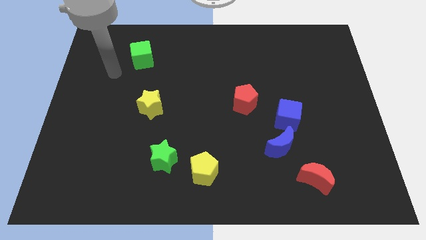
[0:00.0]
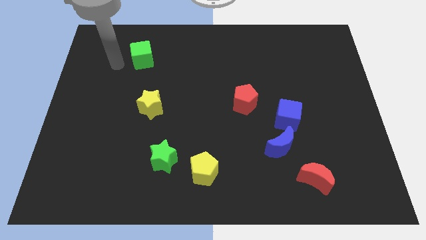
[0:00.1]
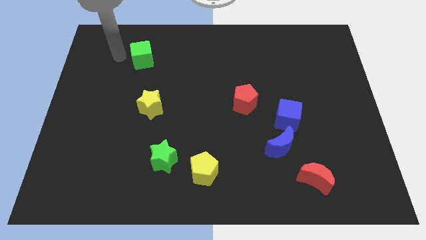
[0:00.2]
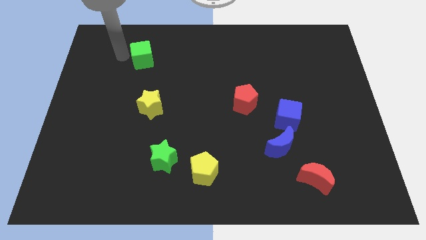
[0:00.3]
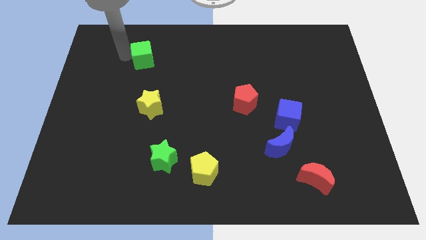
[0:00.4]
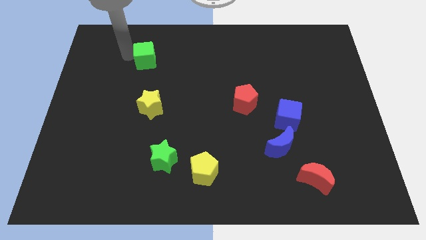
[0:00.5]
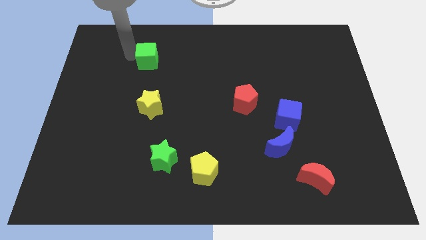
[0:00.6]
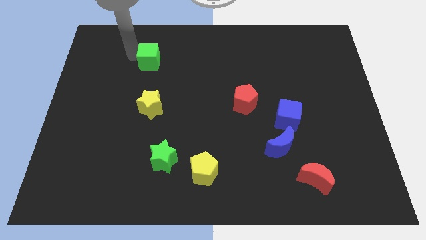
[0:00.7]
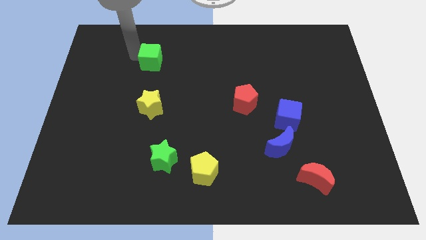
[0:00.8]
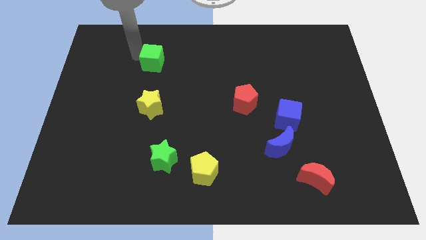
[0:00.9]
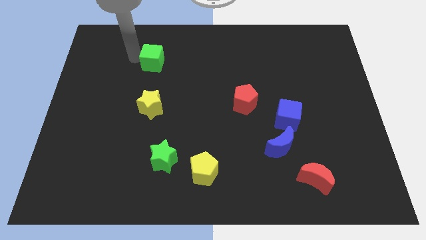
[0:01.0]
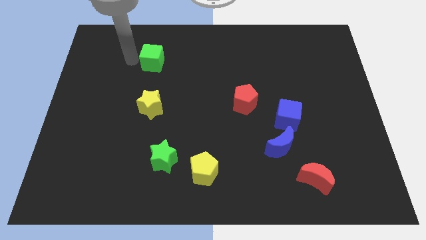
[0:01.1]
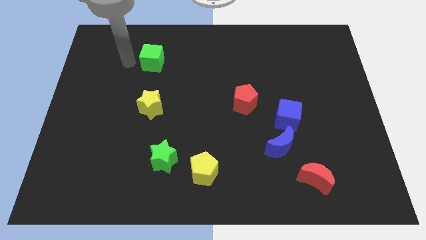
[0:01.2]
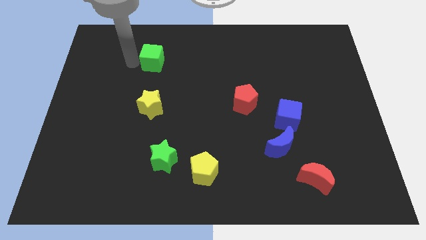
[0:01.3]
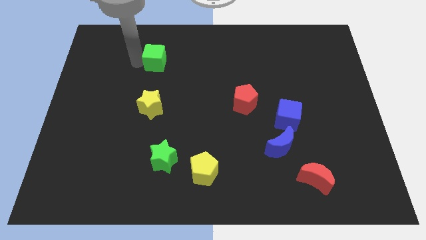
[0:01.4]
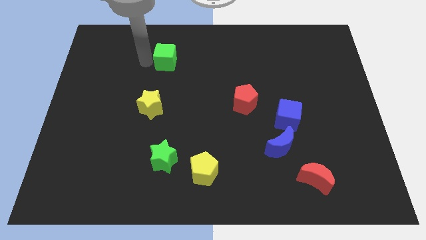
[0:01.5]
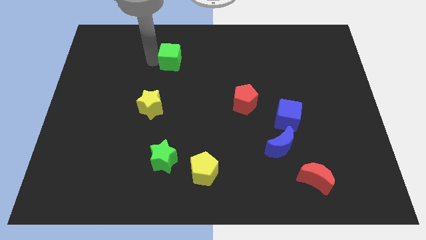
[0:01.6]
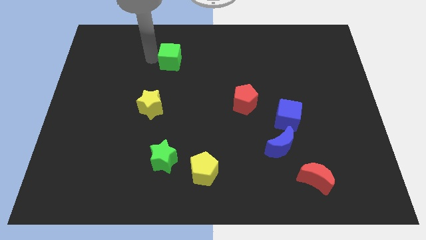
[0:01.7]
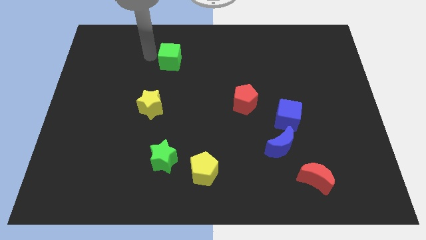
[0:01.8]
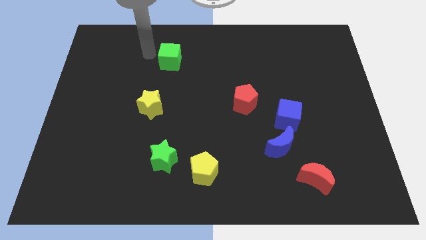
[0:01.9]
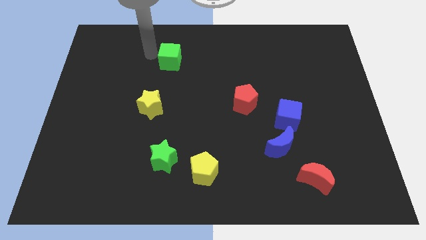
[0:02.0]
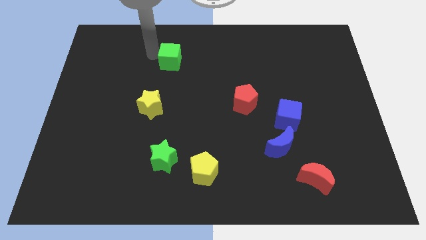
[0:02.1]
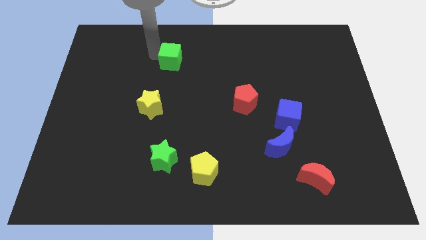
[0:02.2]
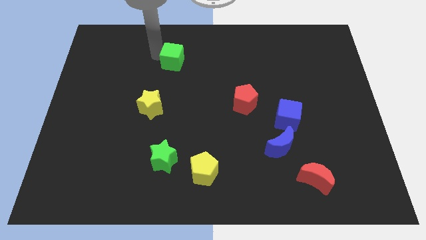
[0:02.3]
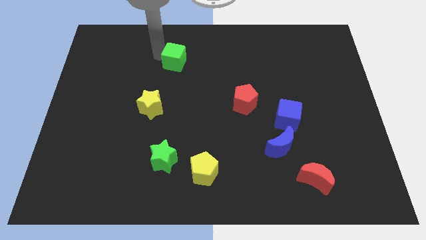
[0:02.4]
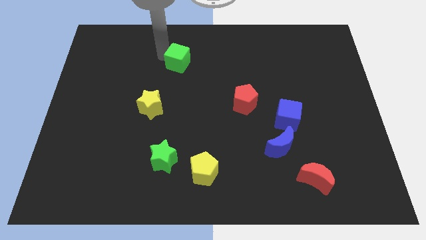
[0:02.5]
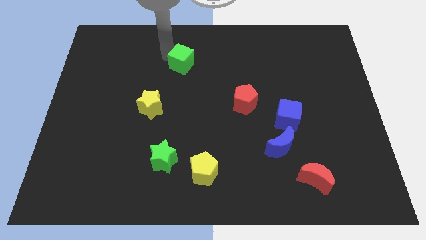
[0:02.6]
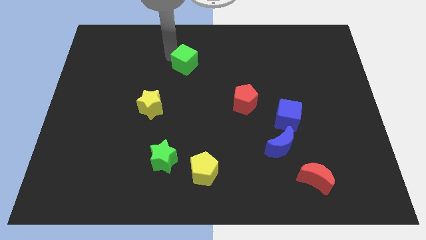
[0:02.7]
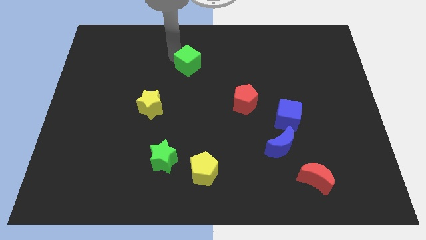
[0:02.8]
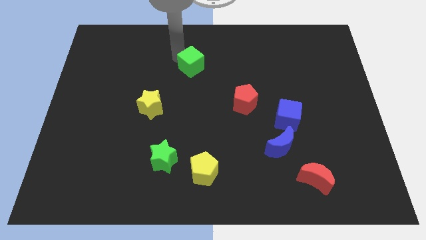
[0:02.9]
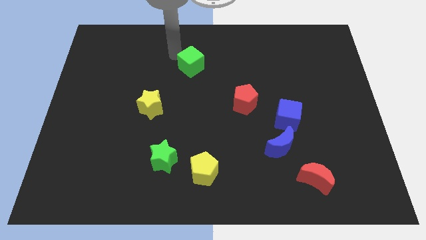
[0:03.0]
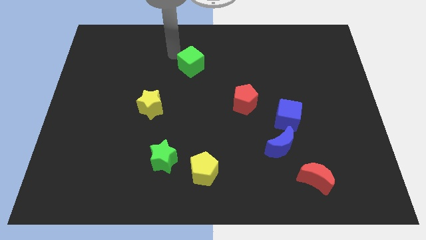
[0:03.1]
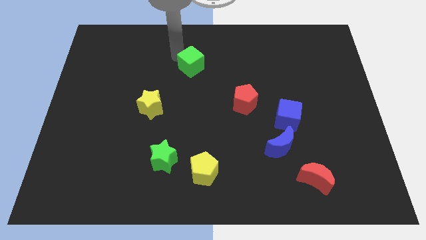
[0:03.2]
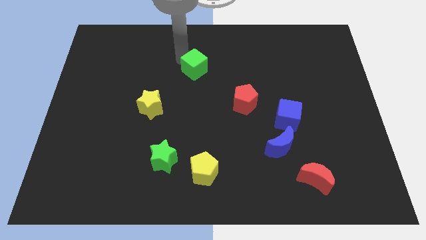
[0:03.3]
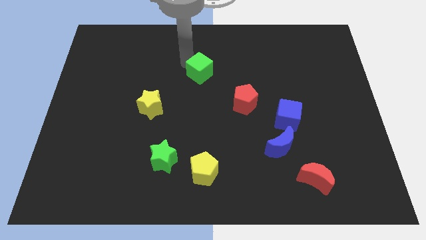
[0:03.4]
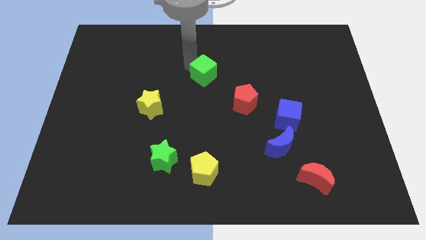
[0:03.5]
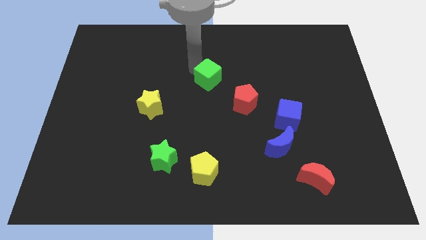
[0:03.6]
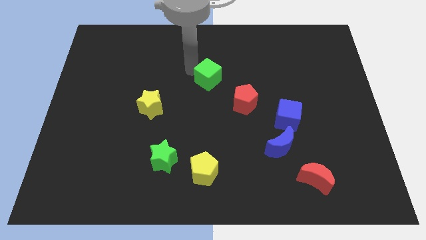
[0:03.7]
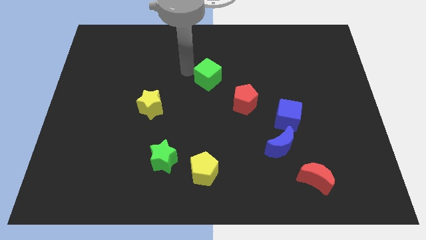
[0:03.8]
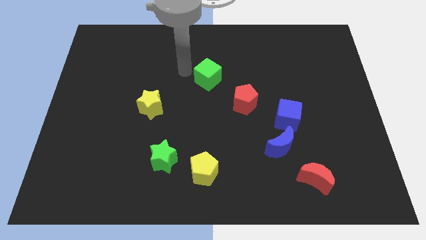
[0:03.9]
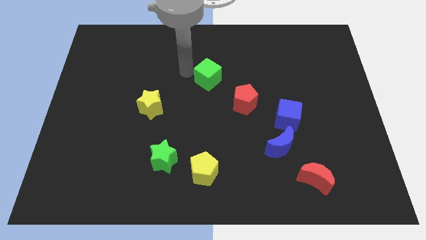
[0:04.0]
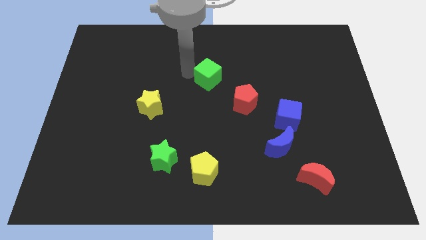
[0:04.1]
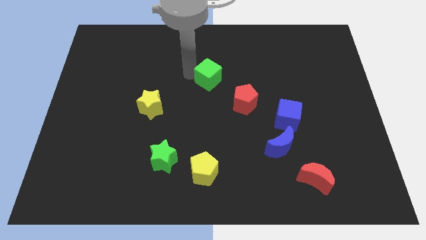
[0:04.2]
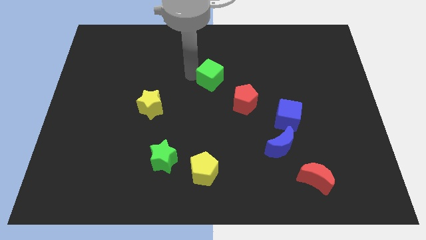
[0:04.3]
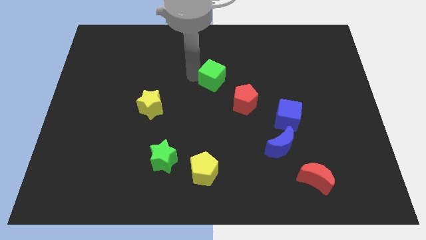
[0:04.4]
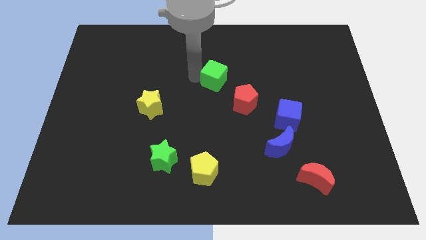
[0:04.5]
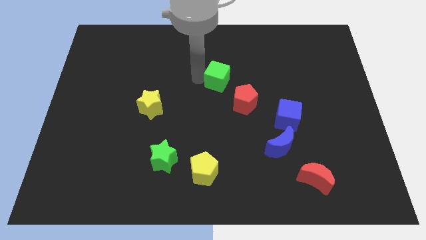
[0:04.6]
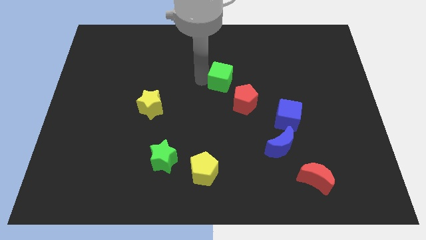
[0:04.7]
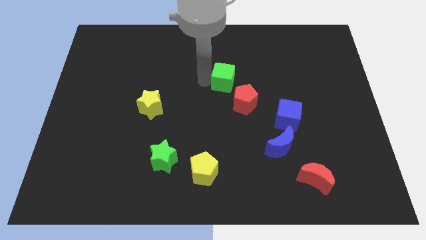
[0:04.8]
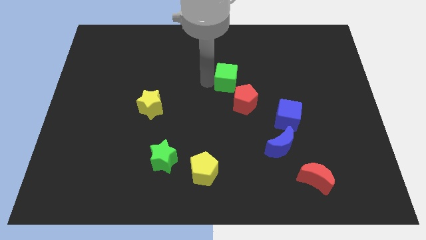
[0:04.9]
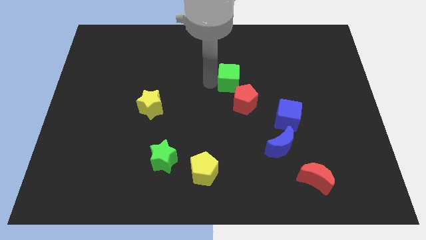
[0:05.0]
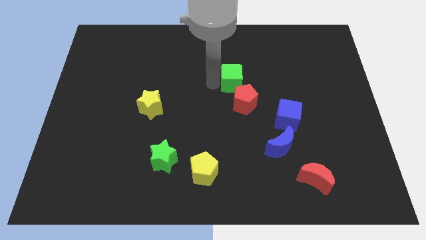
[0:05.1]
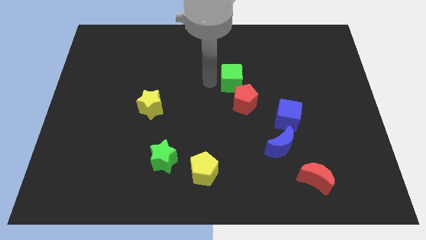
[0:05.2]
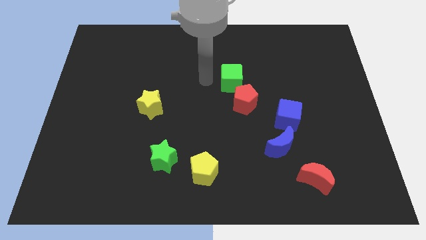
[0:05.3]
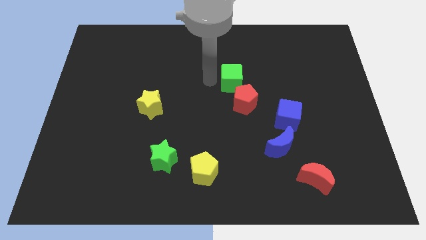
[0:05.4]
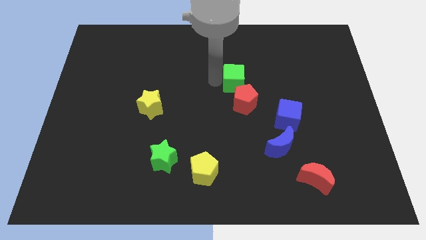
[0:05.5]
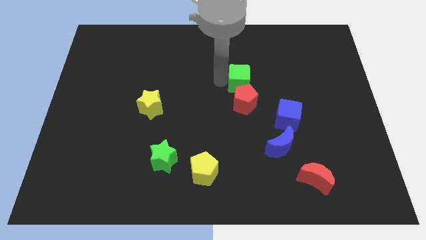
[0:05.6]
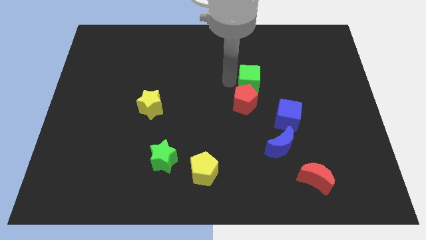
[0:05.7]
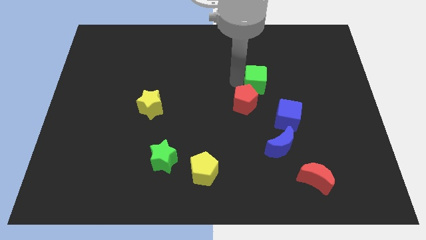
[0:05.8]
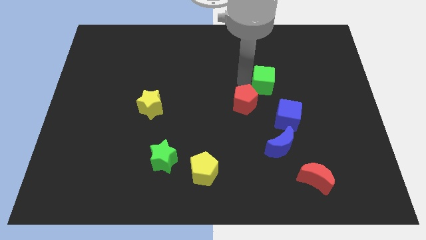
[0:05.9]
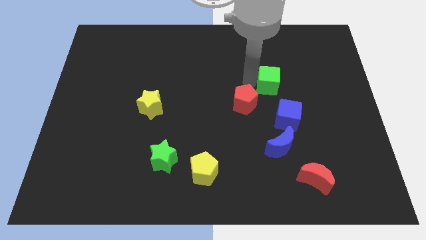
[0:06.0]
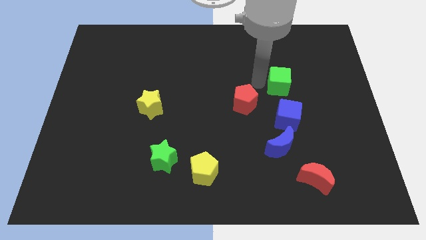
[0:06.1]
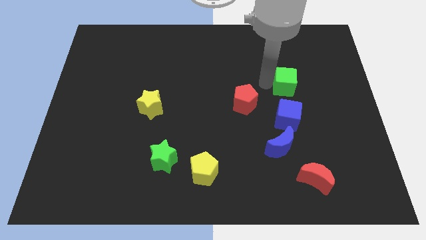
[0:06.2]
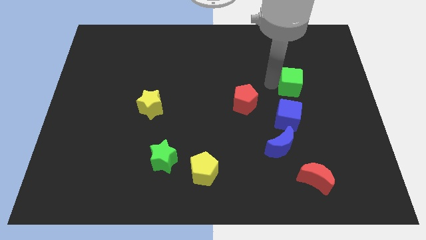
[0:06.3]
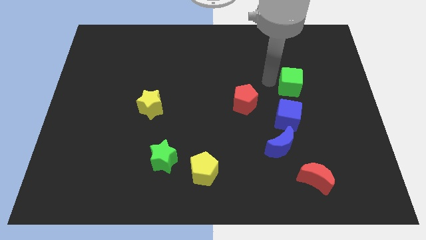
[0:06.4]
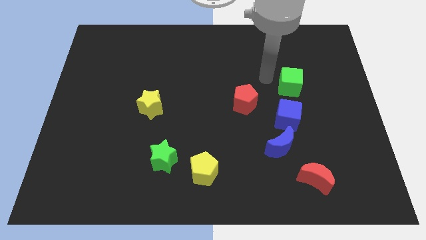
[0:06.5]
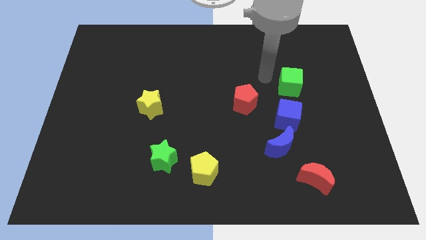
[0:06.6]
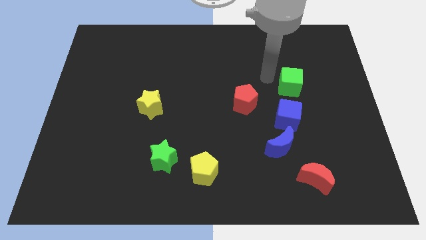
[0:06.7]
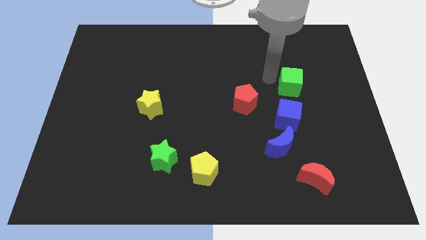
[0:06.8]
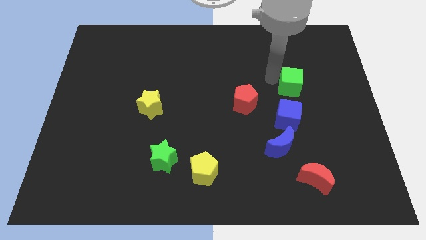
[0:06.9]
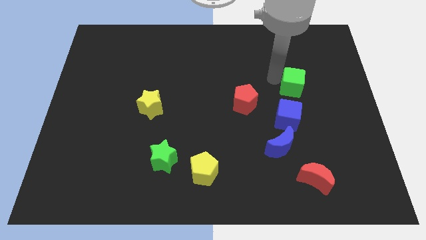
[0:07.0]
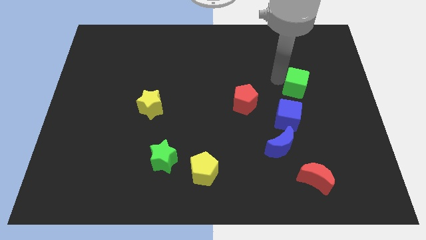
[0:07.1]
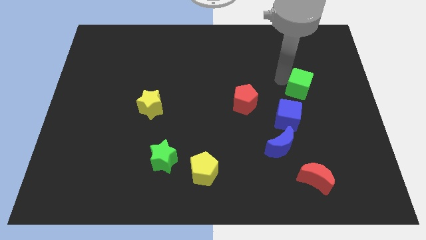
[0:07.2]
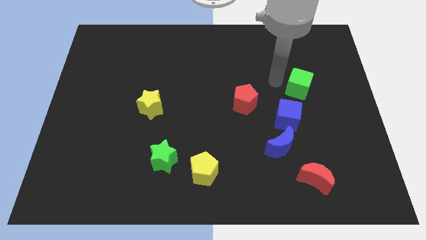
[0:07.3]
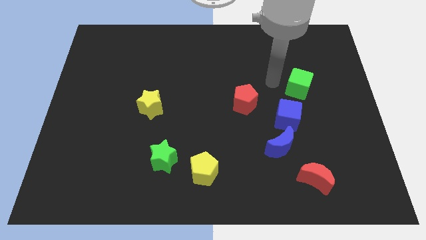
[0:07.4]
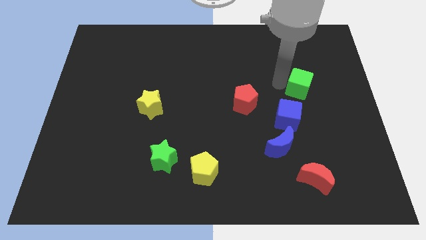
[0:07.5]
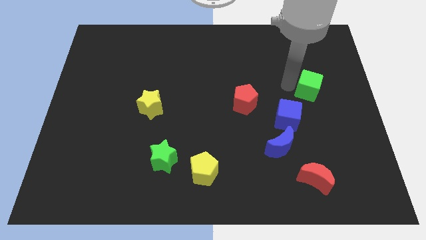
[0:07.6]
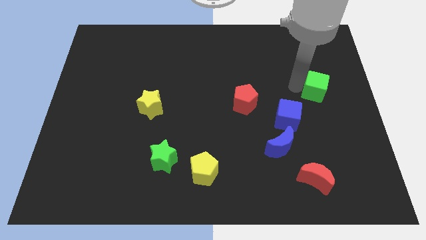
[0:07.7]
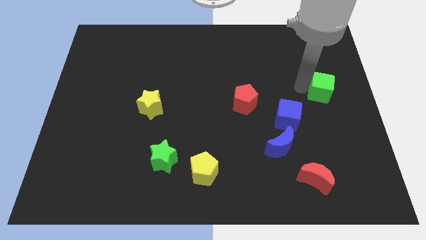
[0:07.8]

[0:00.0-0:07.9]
push the green cube to the center right
